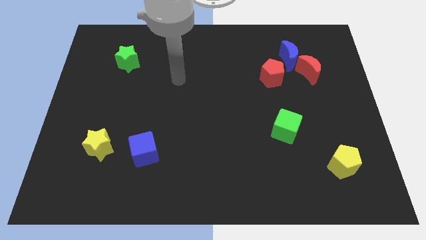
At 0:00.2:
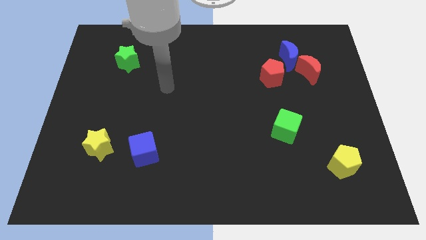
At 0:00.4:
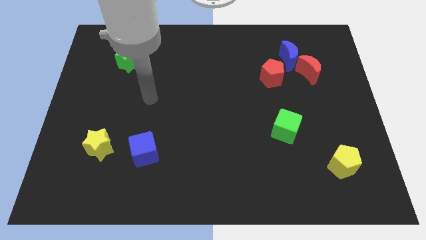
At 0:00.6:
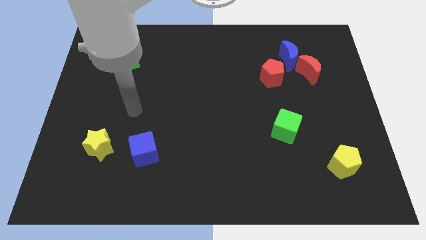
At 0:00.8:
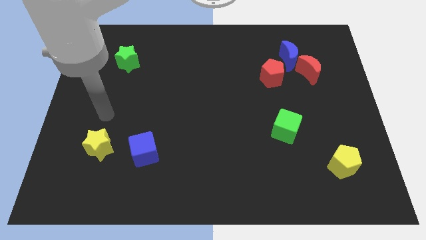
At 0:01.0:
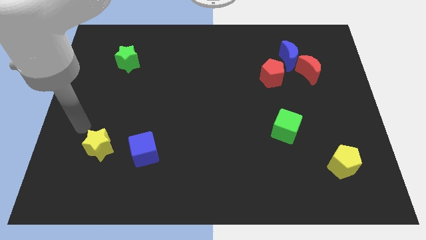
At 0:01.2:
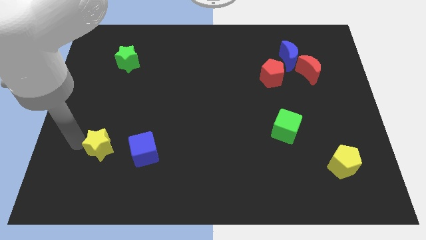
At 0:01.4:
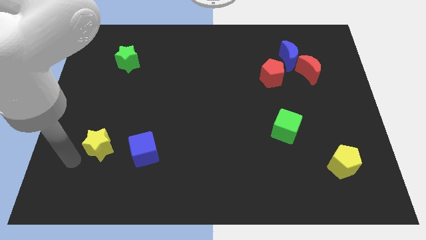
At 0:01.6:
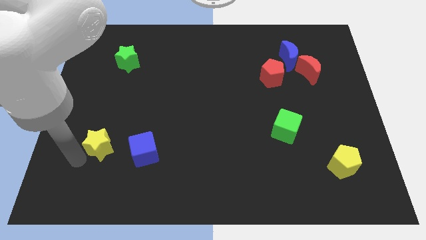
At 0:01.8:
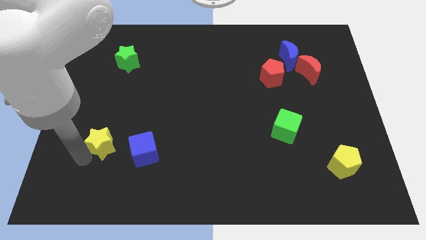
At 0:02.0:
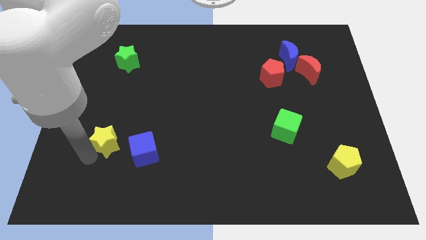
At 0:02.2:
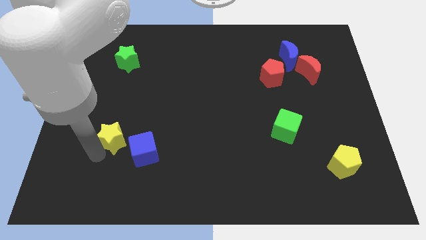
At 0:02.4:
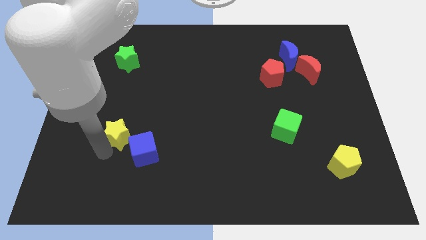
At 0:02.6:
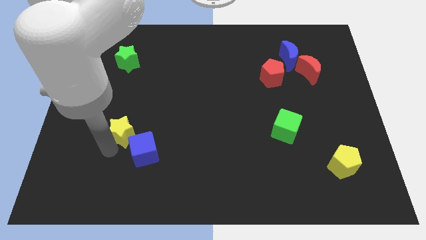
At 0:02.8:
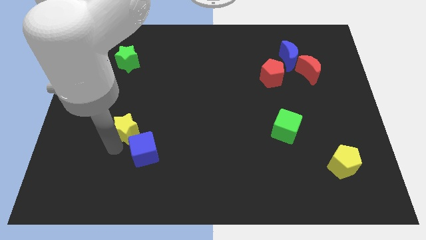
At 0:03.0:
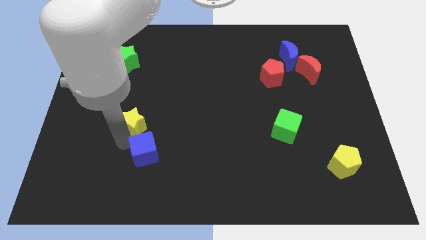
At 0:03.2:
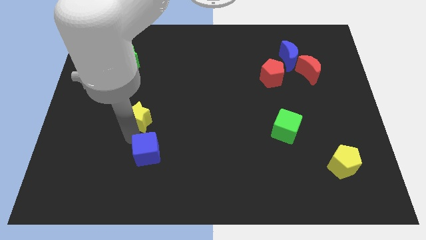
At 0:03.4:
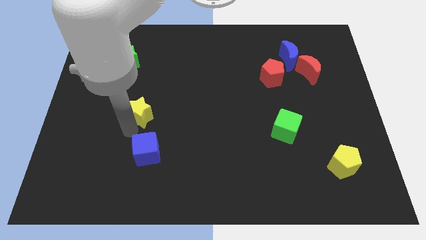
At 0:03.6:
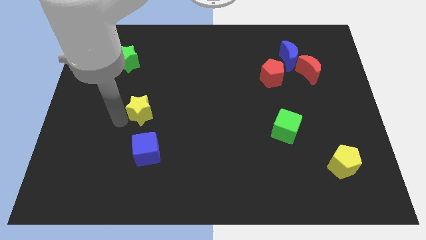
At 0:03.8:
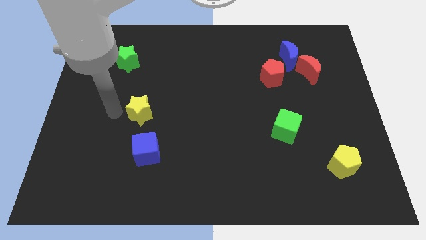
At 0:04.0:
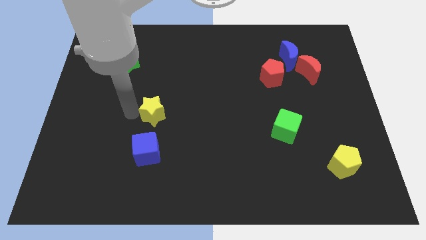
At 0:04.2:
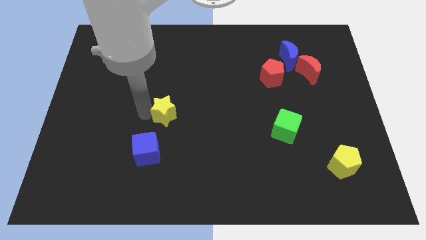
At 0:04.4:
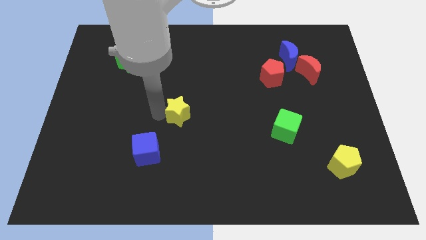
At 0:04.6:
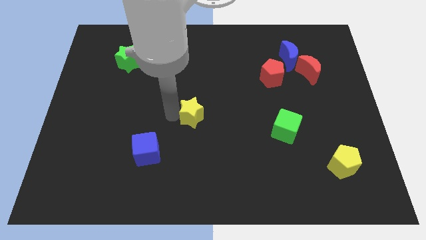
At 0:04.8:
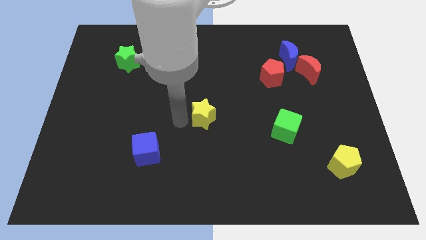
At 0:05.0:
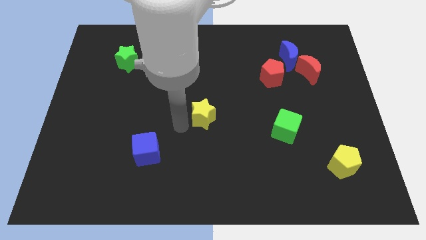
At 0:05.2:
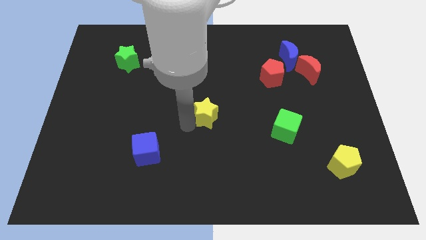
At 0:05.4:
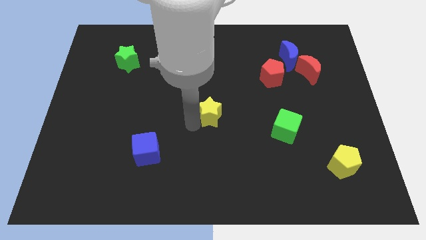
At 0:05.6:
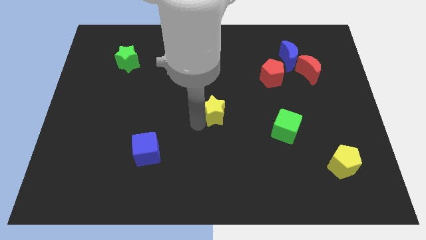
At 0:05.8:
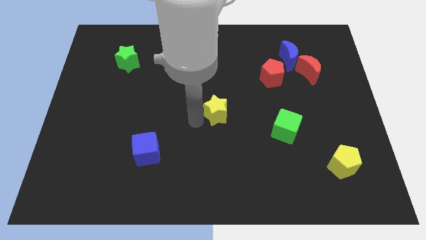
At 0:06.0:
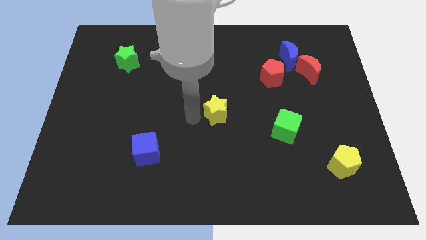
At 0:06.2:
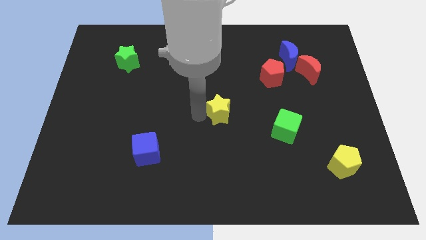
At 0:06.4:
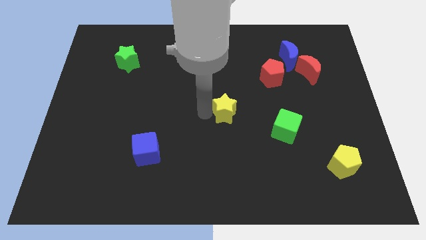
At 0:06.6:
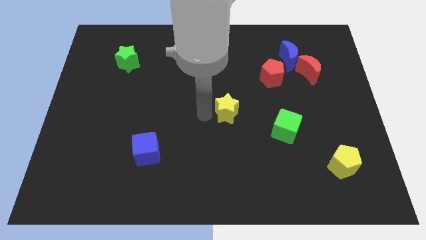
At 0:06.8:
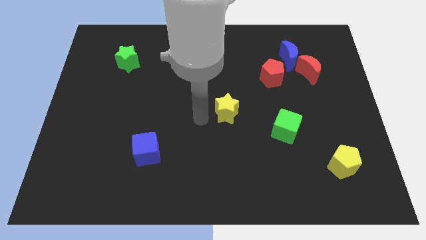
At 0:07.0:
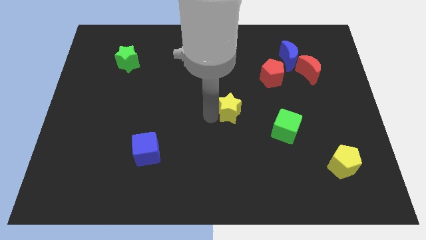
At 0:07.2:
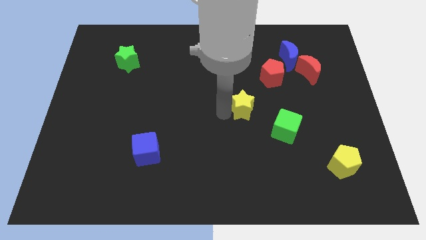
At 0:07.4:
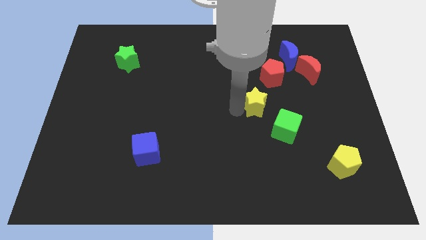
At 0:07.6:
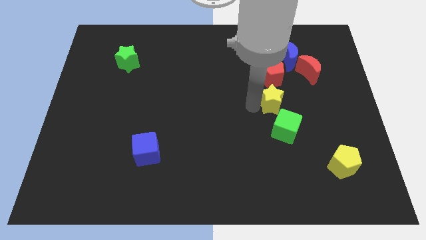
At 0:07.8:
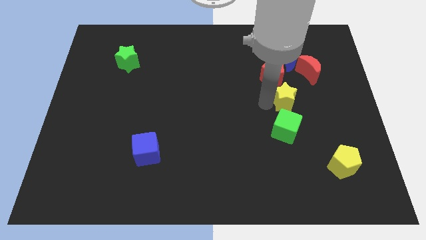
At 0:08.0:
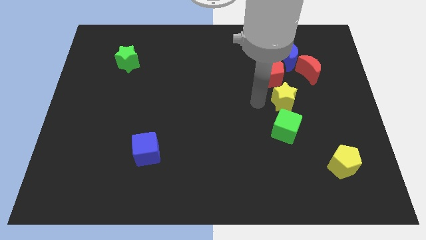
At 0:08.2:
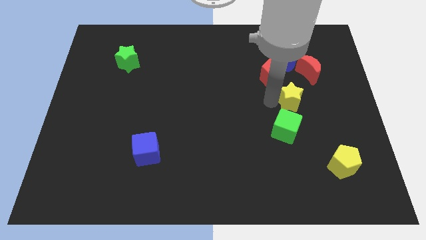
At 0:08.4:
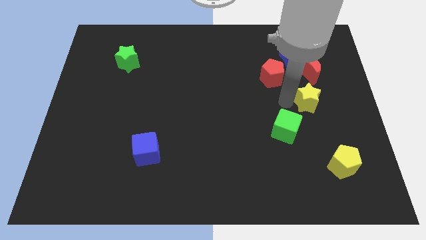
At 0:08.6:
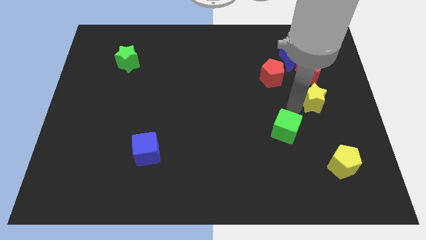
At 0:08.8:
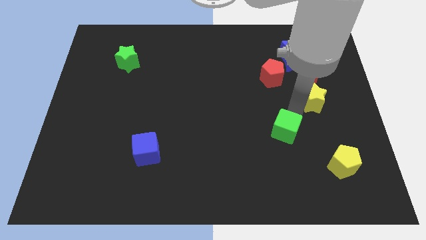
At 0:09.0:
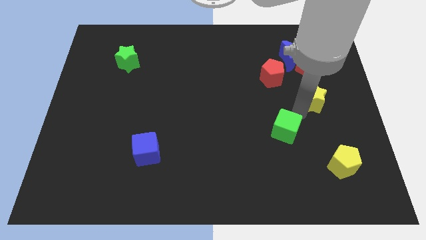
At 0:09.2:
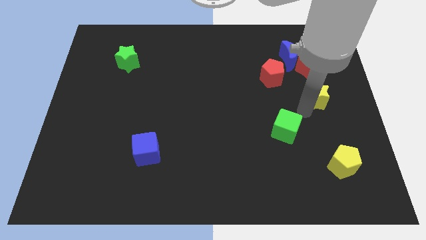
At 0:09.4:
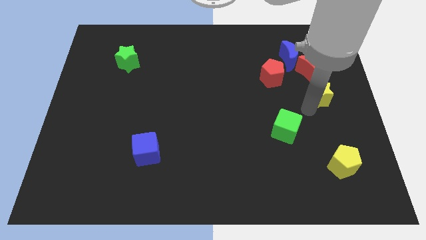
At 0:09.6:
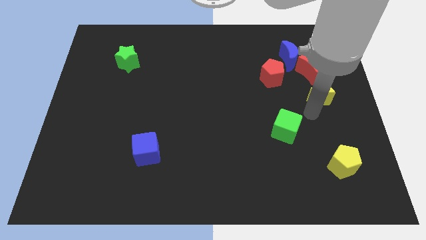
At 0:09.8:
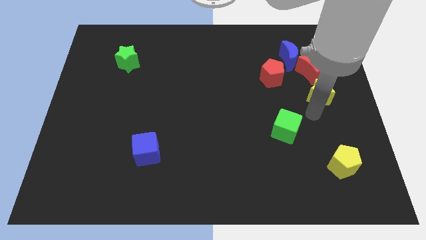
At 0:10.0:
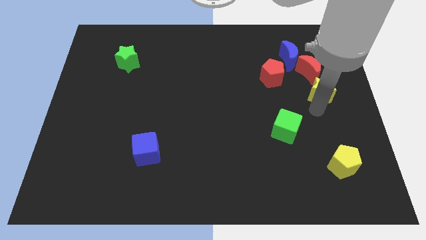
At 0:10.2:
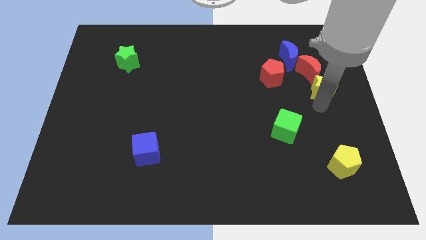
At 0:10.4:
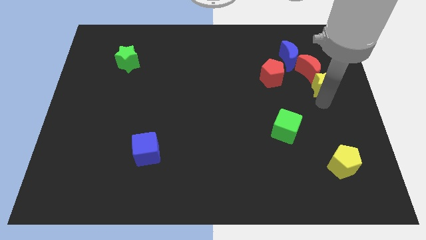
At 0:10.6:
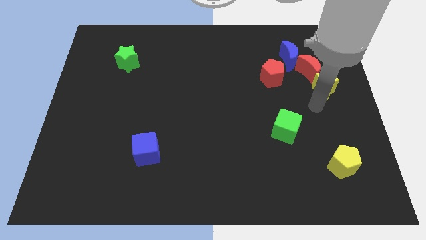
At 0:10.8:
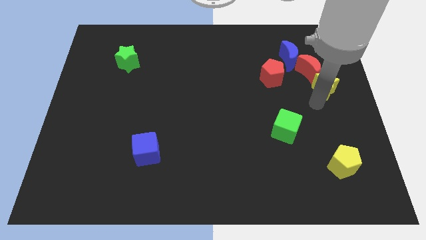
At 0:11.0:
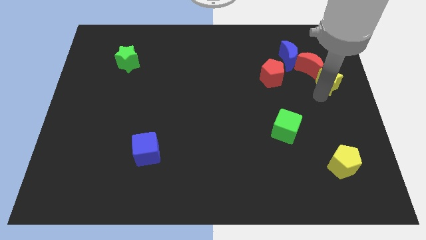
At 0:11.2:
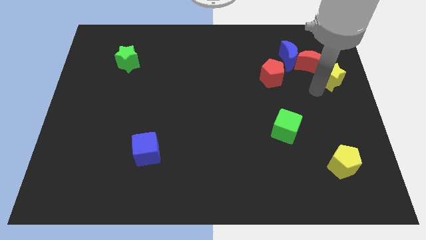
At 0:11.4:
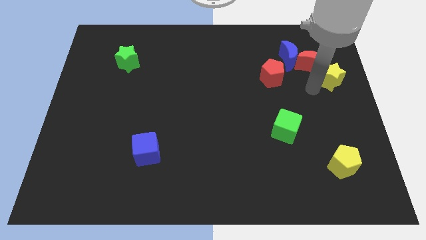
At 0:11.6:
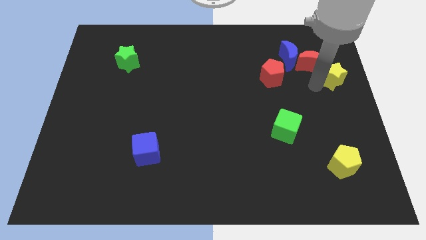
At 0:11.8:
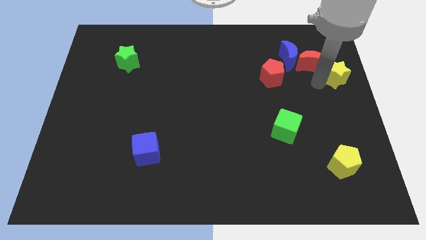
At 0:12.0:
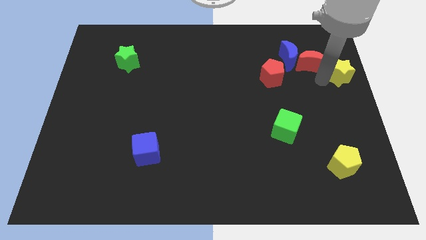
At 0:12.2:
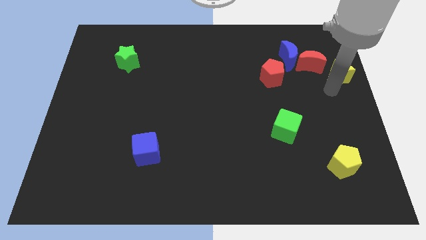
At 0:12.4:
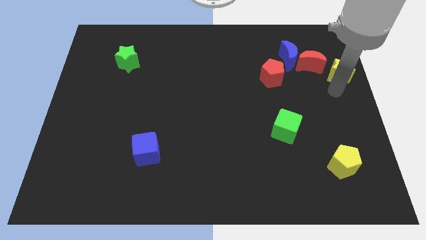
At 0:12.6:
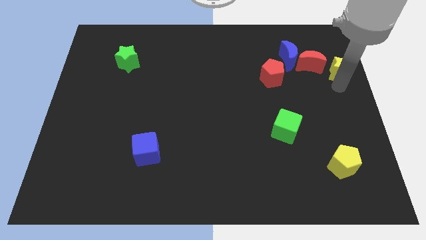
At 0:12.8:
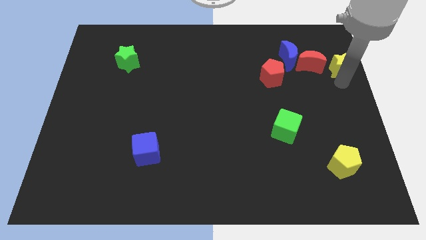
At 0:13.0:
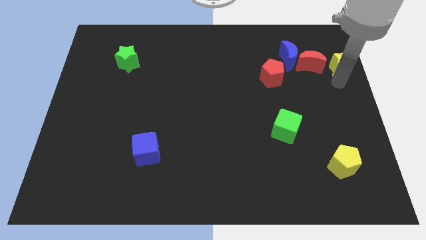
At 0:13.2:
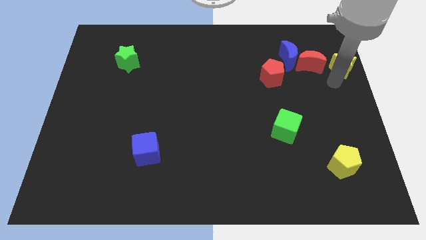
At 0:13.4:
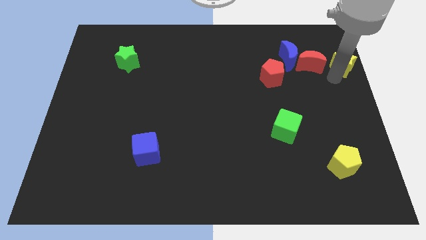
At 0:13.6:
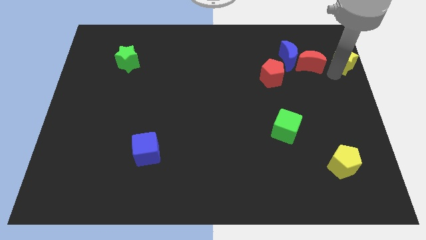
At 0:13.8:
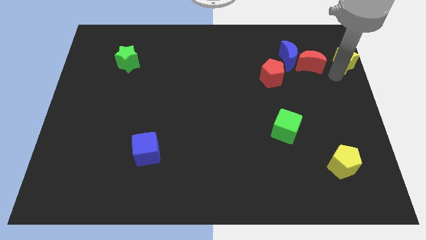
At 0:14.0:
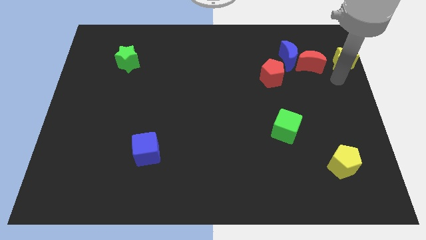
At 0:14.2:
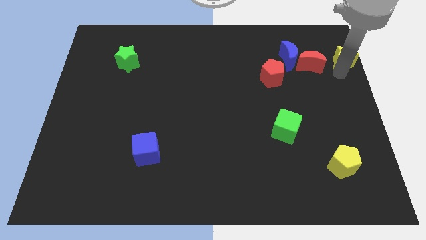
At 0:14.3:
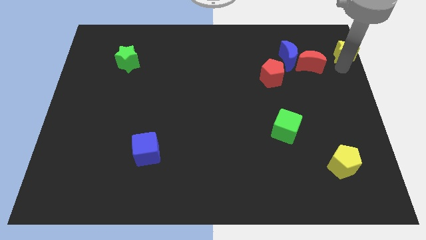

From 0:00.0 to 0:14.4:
move the yellow star to the upper right corner
